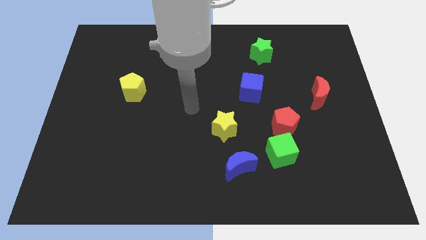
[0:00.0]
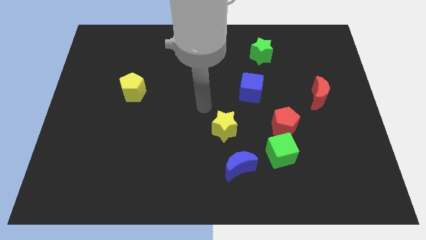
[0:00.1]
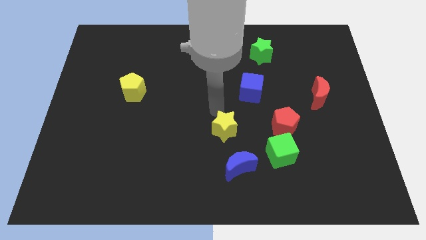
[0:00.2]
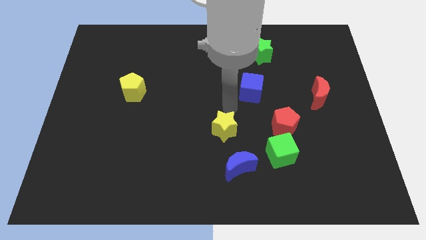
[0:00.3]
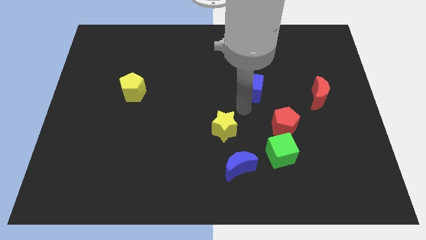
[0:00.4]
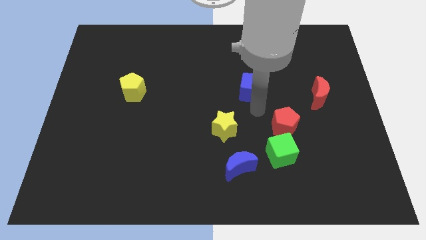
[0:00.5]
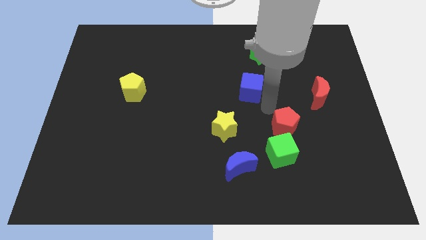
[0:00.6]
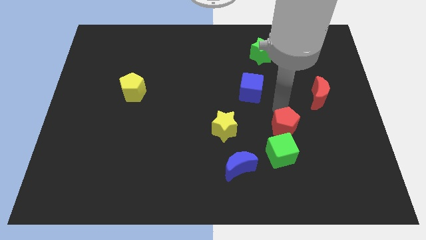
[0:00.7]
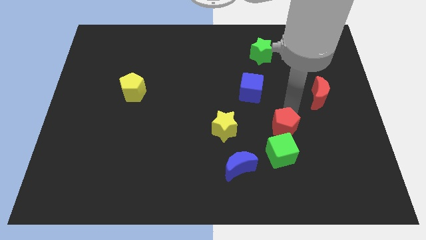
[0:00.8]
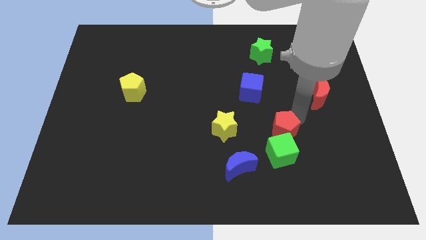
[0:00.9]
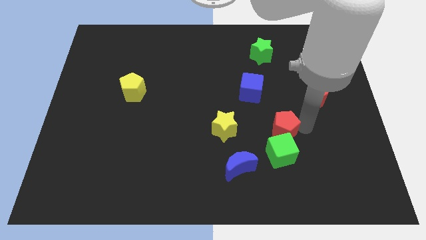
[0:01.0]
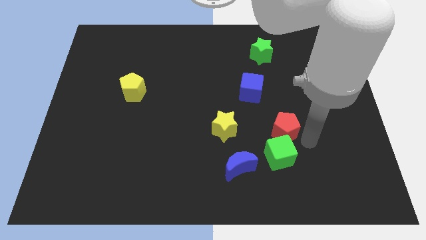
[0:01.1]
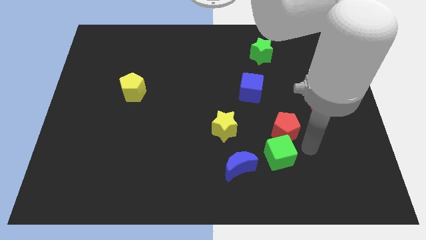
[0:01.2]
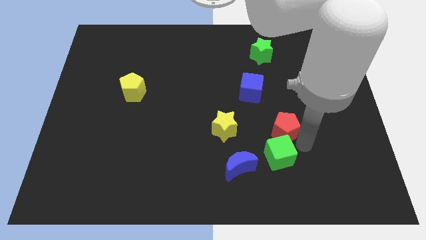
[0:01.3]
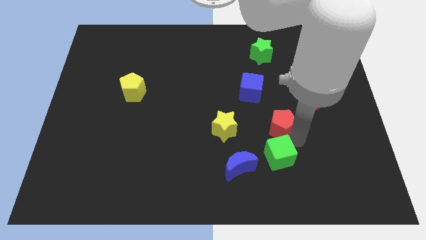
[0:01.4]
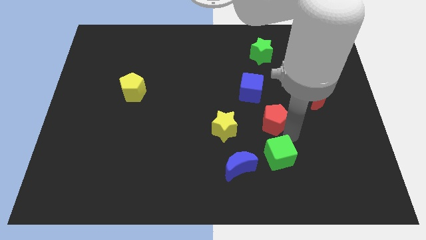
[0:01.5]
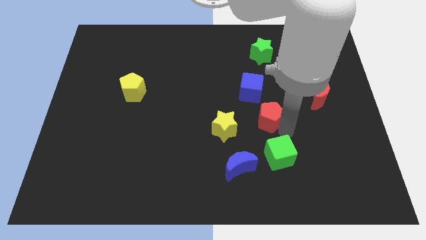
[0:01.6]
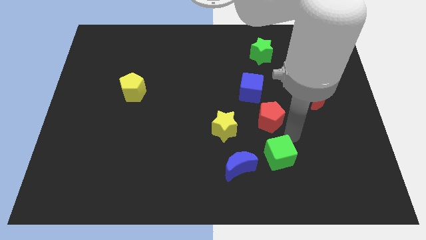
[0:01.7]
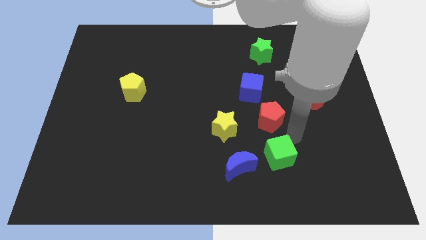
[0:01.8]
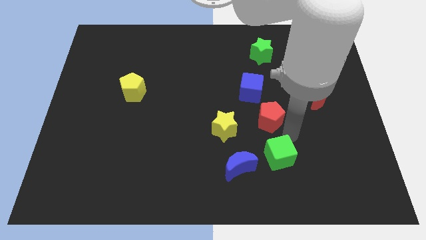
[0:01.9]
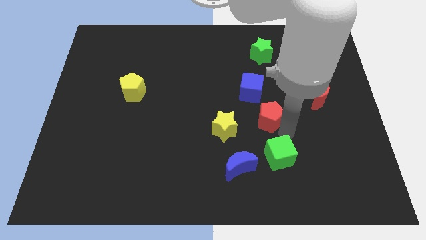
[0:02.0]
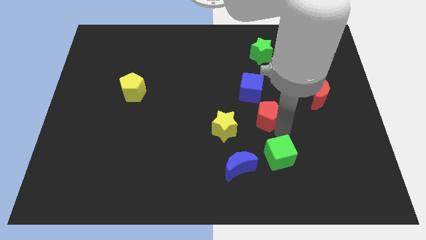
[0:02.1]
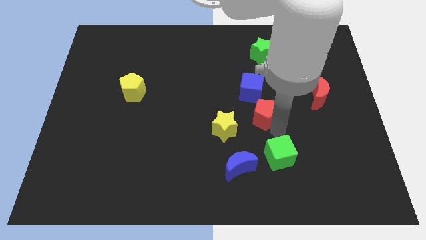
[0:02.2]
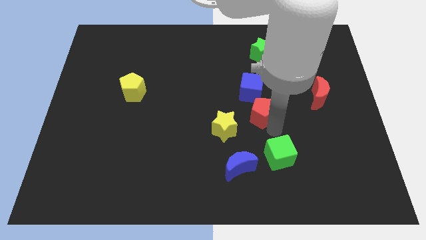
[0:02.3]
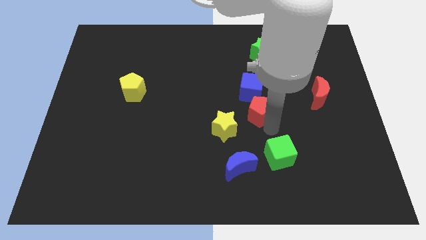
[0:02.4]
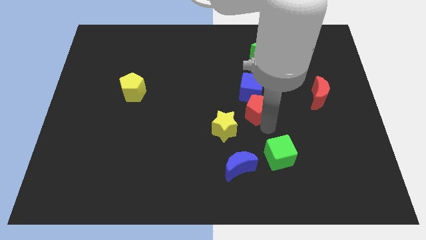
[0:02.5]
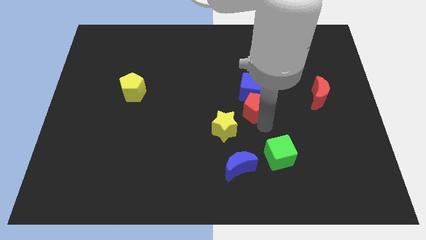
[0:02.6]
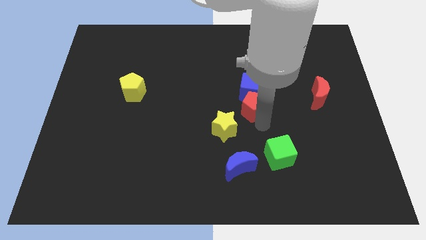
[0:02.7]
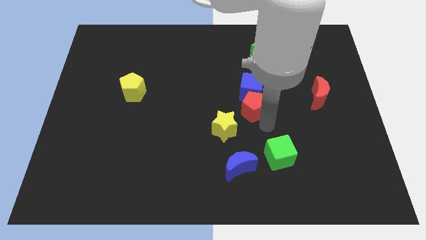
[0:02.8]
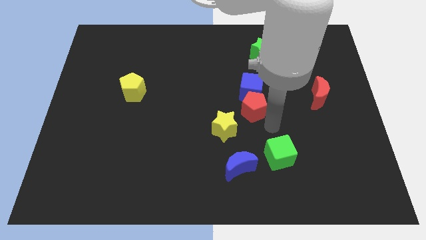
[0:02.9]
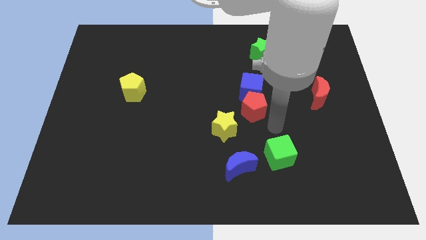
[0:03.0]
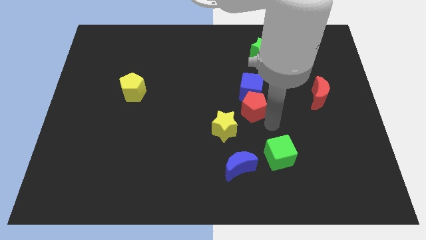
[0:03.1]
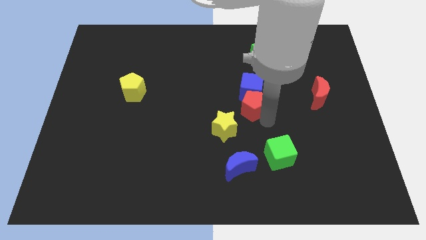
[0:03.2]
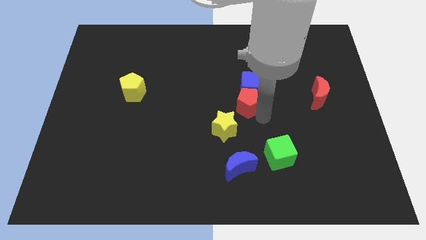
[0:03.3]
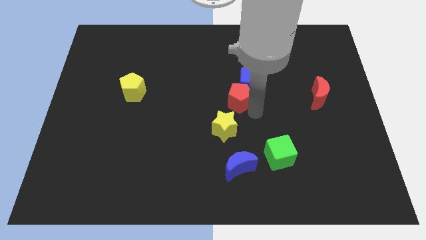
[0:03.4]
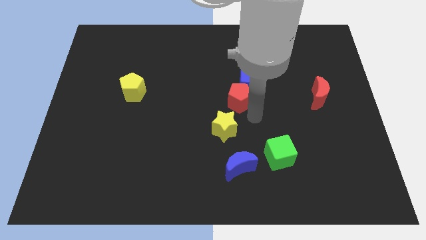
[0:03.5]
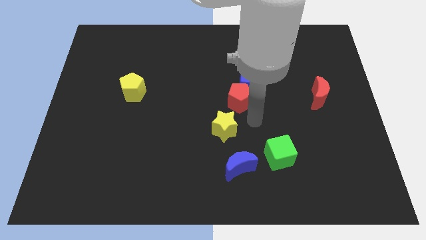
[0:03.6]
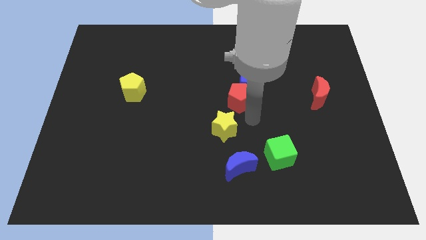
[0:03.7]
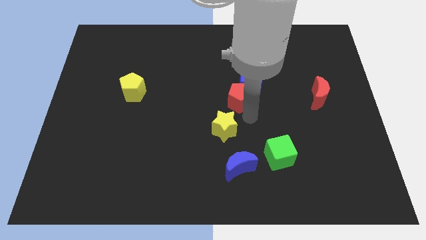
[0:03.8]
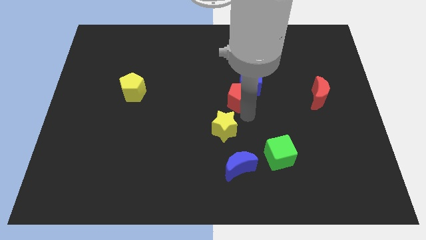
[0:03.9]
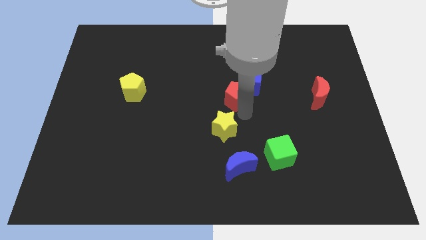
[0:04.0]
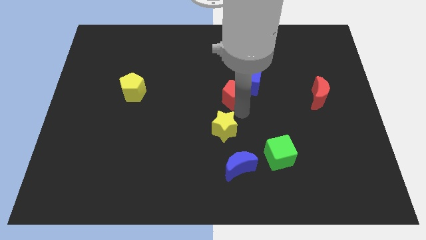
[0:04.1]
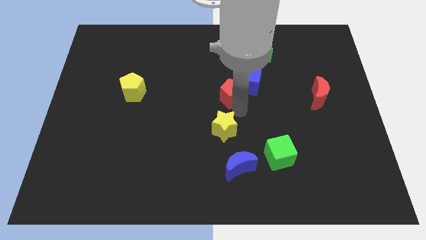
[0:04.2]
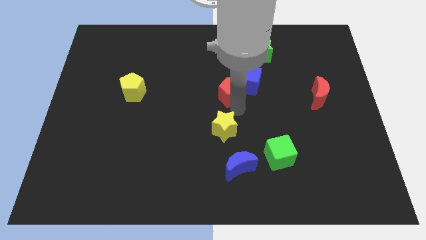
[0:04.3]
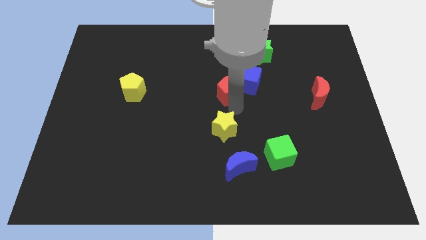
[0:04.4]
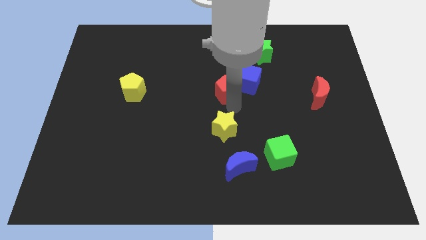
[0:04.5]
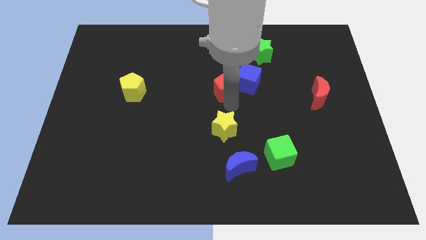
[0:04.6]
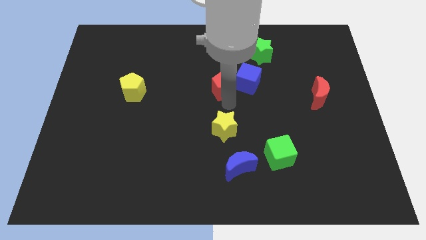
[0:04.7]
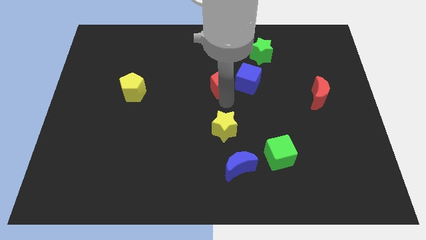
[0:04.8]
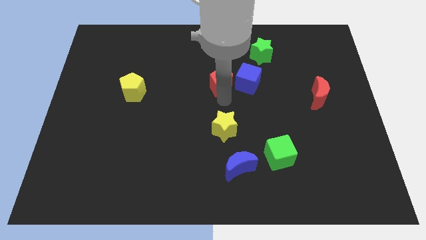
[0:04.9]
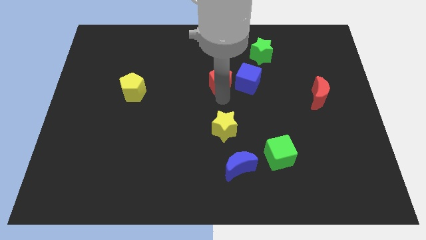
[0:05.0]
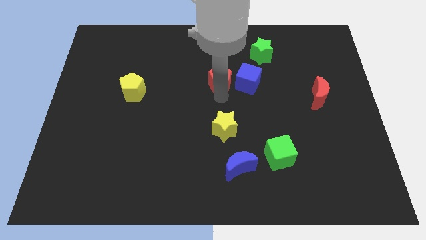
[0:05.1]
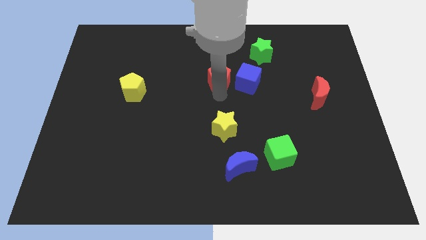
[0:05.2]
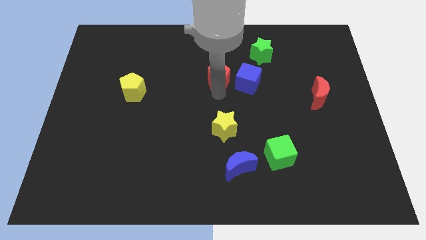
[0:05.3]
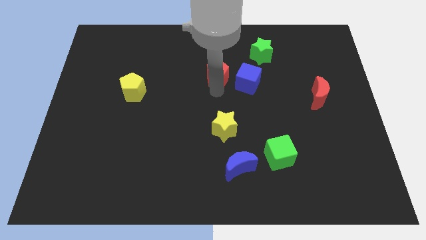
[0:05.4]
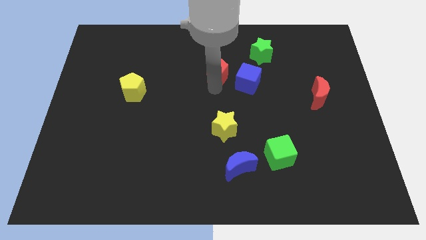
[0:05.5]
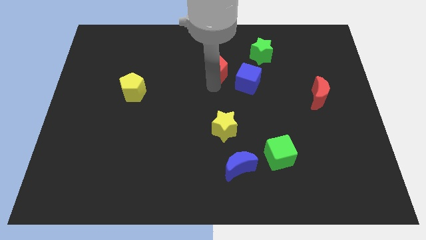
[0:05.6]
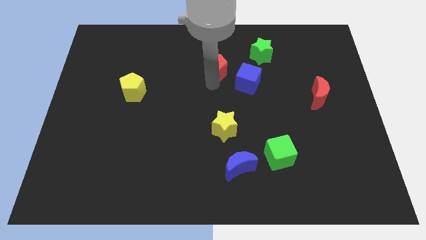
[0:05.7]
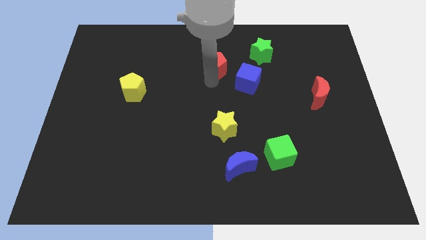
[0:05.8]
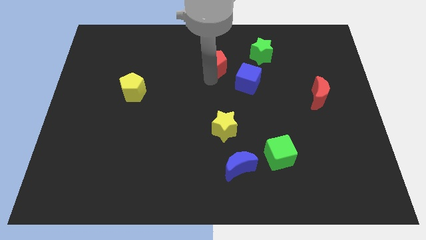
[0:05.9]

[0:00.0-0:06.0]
push the red pentagon left of the green star

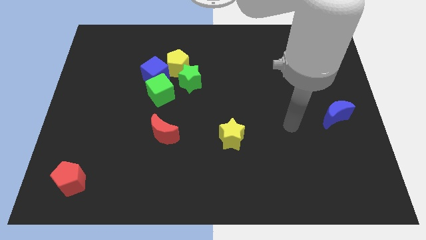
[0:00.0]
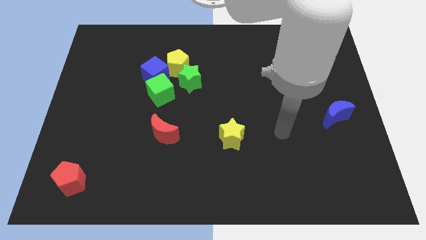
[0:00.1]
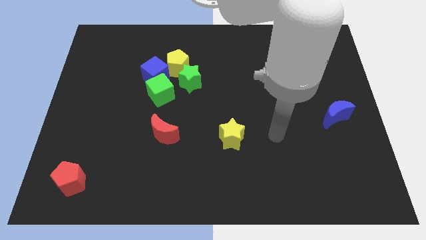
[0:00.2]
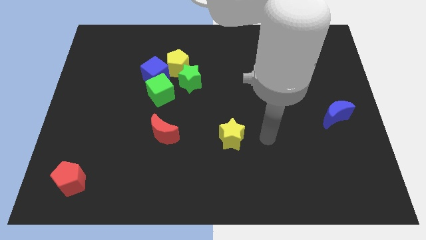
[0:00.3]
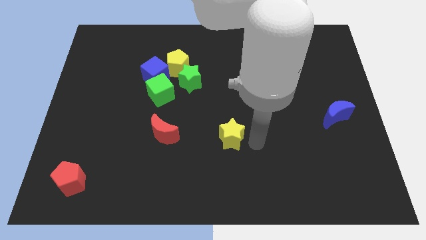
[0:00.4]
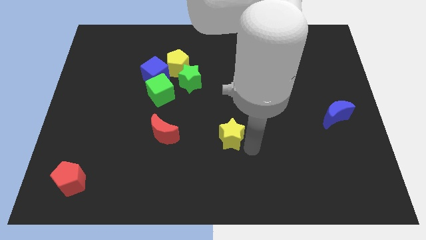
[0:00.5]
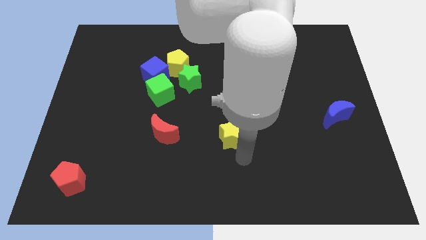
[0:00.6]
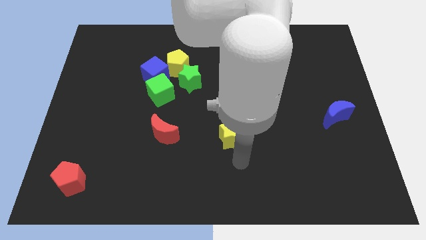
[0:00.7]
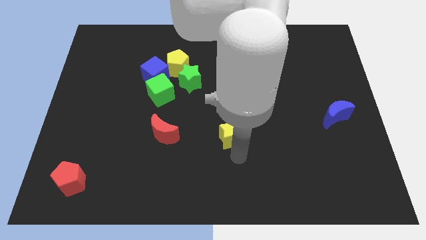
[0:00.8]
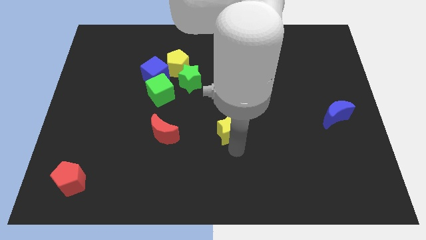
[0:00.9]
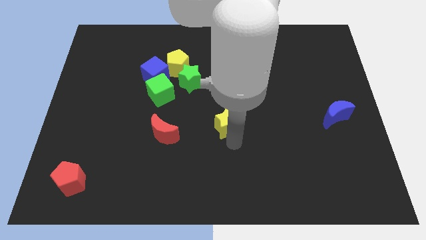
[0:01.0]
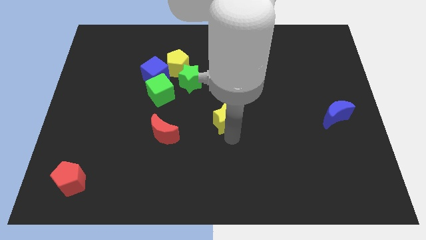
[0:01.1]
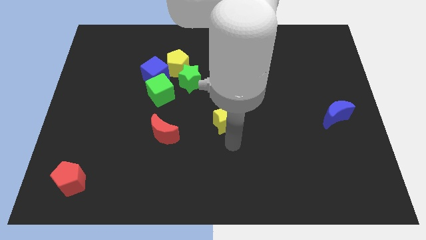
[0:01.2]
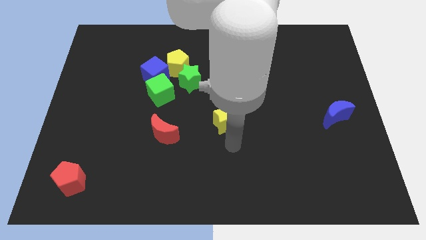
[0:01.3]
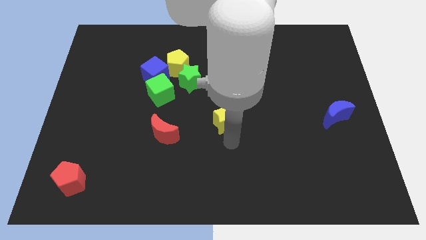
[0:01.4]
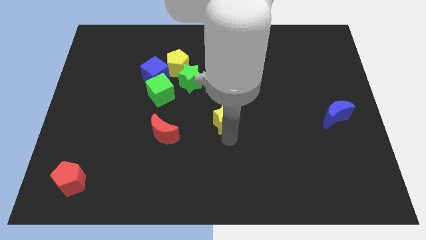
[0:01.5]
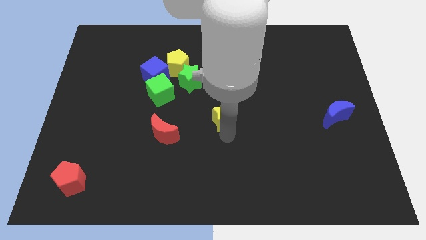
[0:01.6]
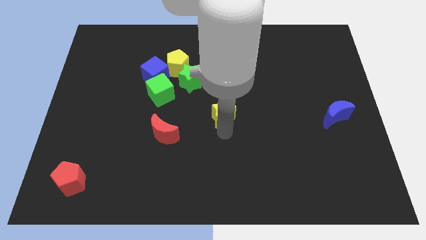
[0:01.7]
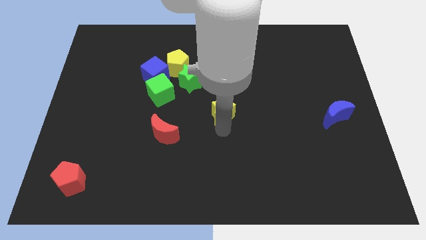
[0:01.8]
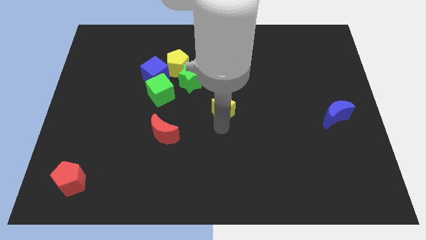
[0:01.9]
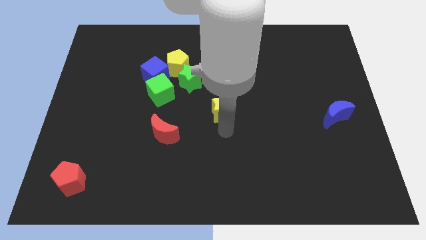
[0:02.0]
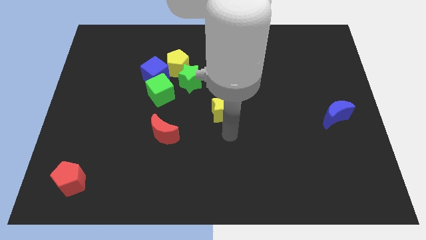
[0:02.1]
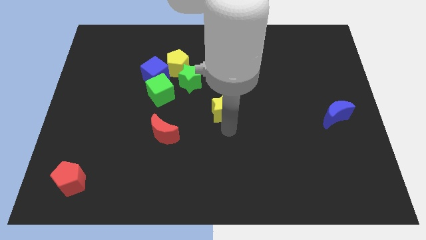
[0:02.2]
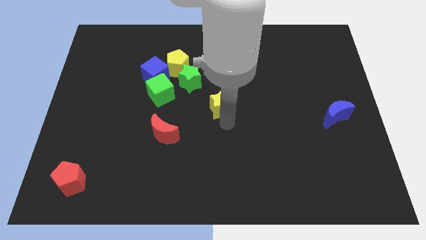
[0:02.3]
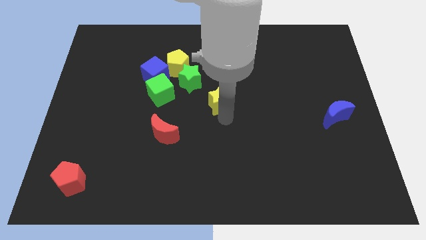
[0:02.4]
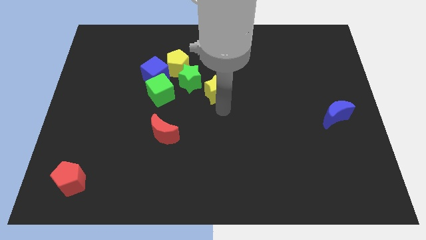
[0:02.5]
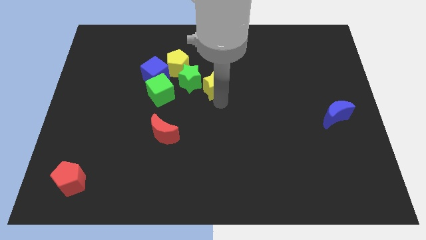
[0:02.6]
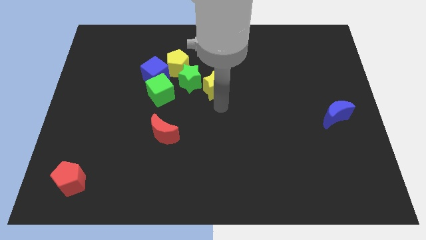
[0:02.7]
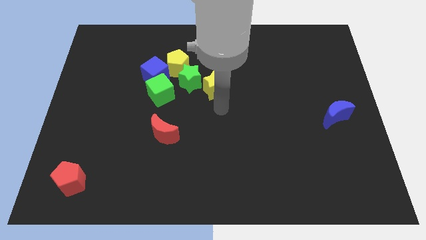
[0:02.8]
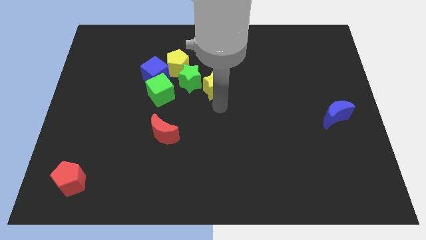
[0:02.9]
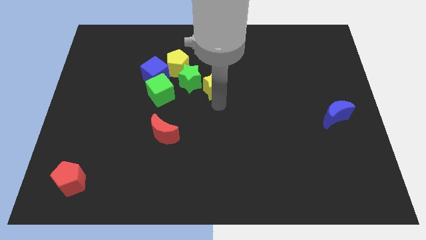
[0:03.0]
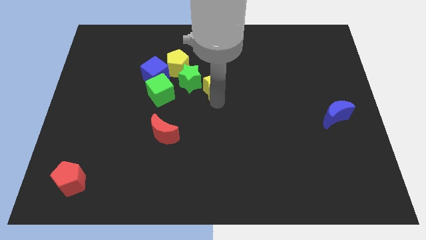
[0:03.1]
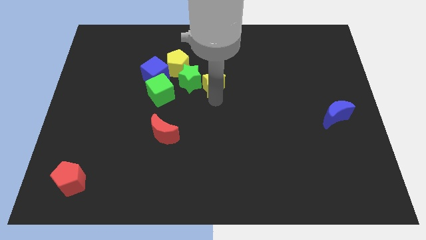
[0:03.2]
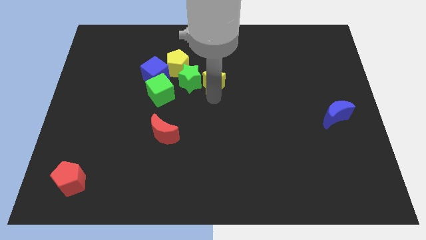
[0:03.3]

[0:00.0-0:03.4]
put the yellow star to the top right side of the green star
